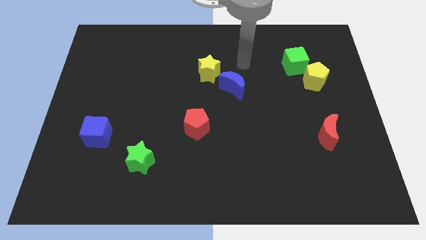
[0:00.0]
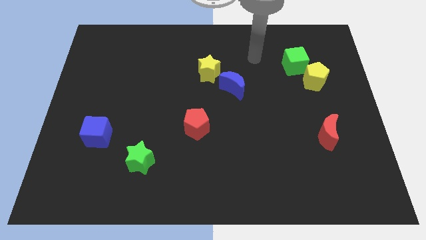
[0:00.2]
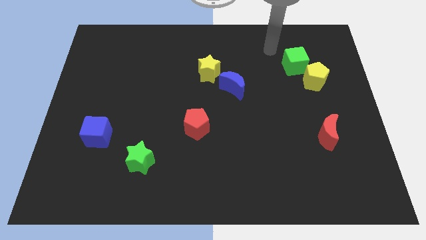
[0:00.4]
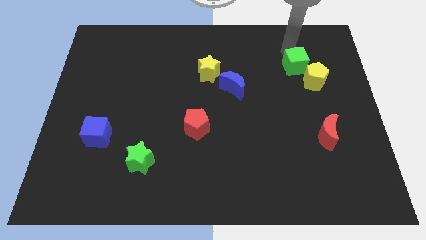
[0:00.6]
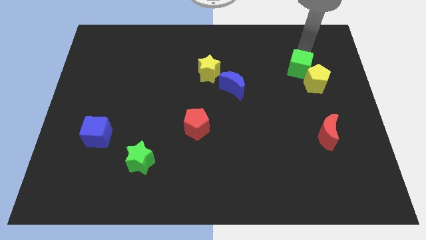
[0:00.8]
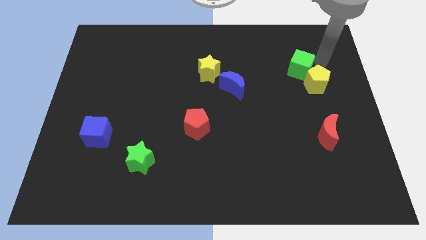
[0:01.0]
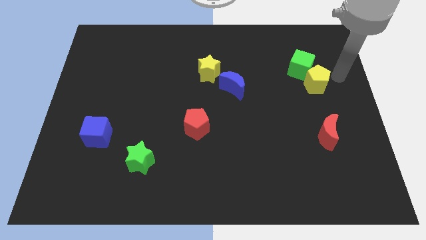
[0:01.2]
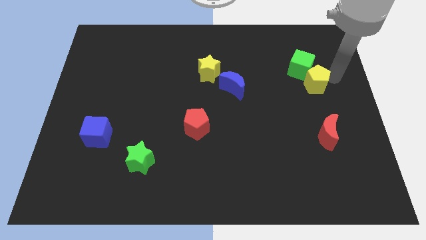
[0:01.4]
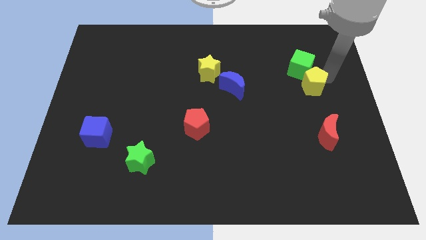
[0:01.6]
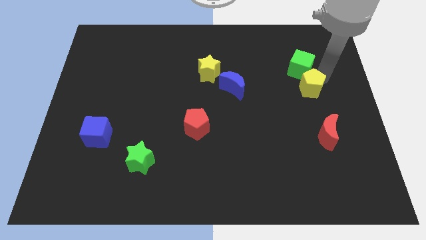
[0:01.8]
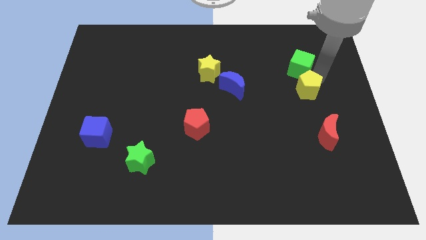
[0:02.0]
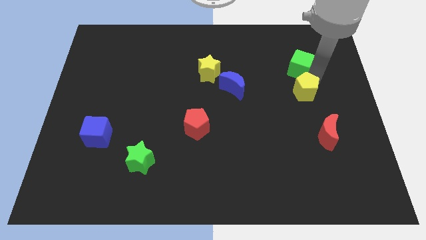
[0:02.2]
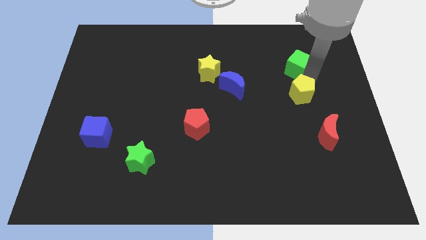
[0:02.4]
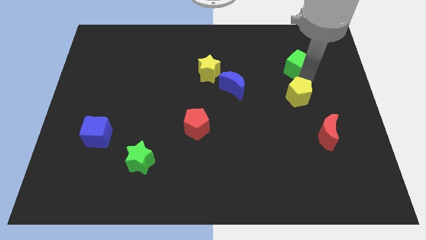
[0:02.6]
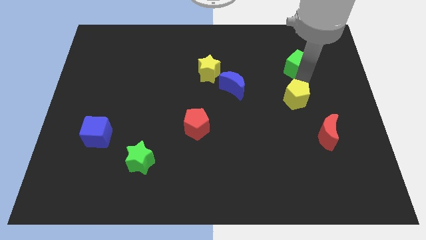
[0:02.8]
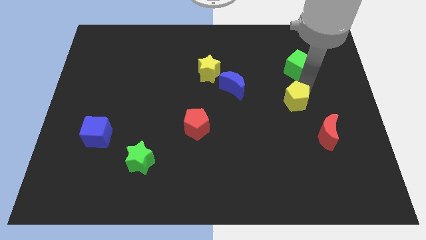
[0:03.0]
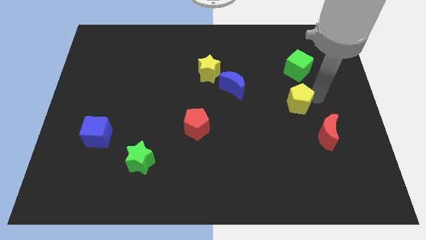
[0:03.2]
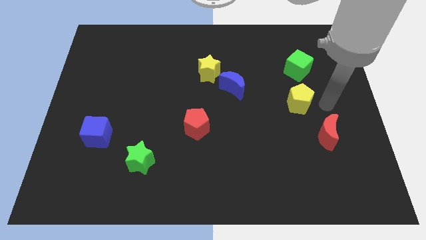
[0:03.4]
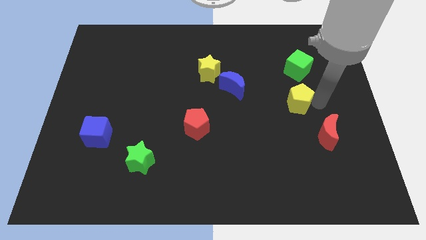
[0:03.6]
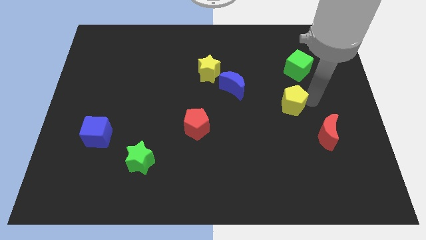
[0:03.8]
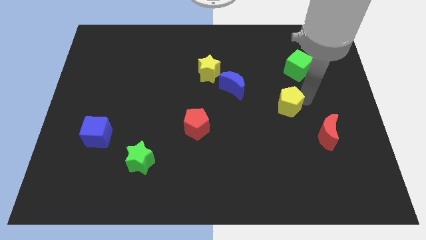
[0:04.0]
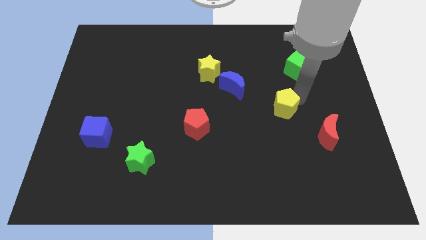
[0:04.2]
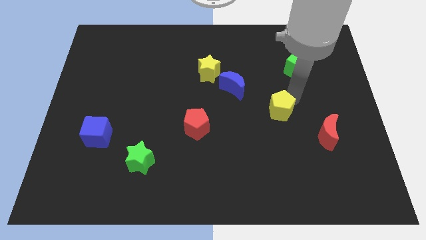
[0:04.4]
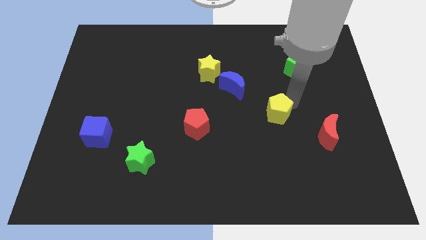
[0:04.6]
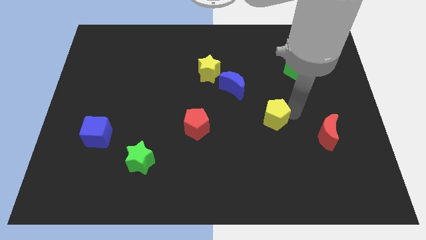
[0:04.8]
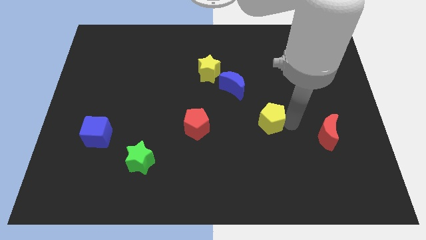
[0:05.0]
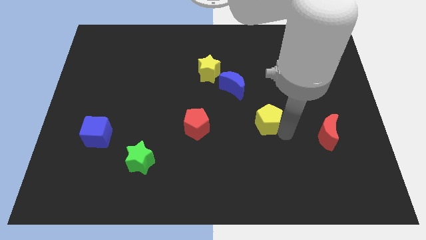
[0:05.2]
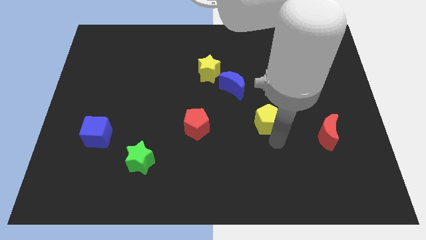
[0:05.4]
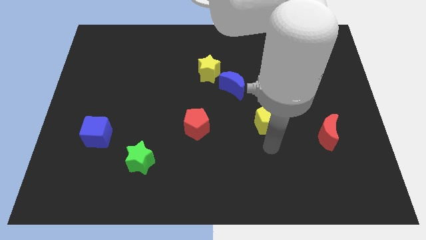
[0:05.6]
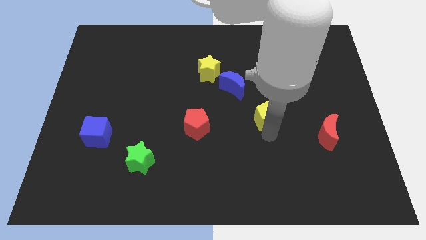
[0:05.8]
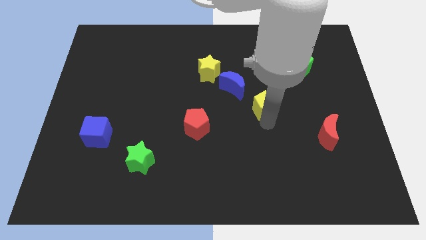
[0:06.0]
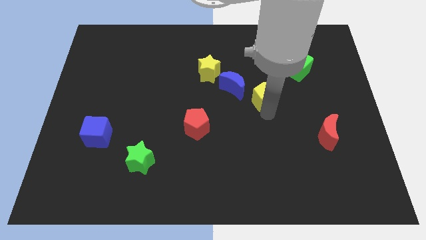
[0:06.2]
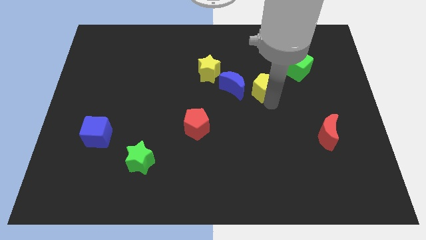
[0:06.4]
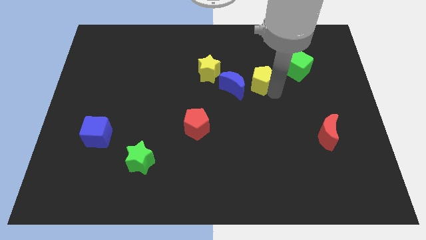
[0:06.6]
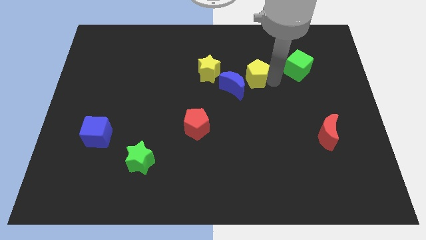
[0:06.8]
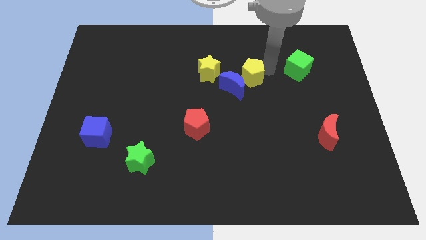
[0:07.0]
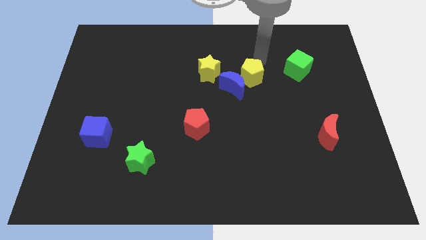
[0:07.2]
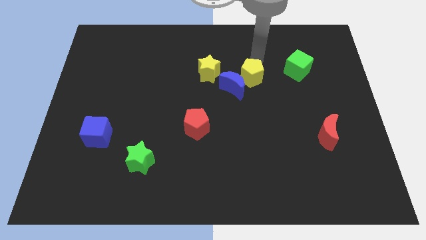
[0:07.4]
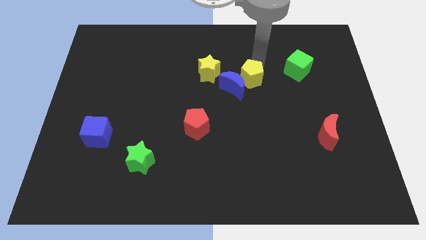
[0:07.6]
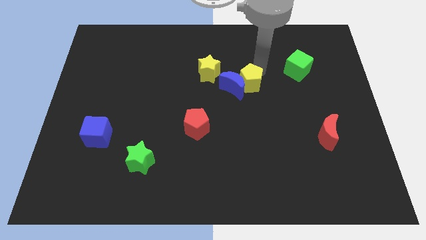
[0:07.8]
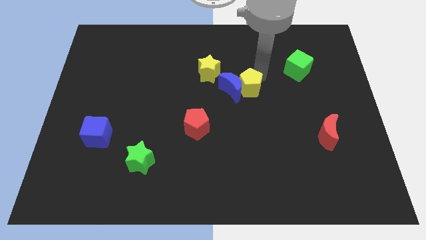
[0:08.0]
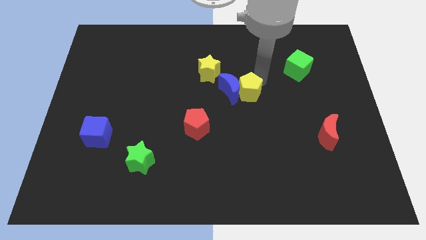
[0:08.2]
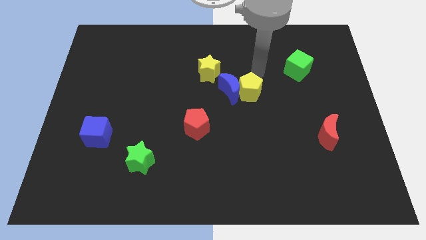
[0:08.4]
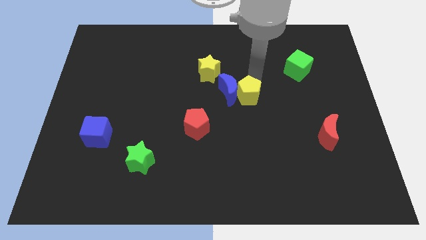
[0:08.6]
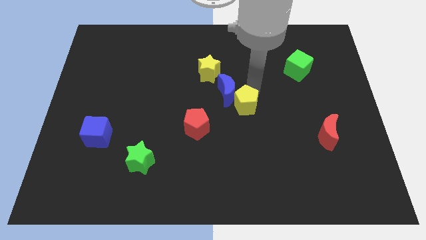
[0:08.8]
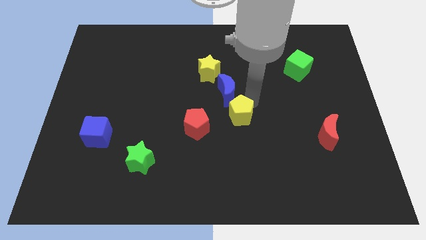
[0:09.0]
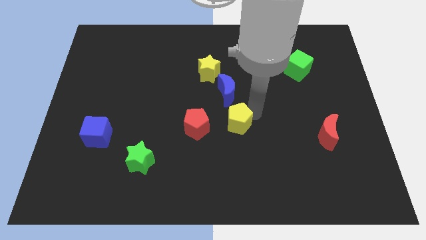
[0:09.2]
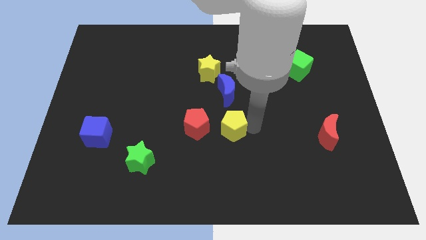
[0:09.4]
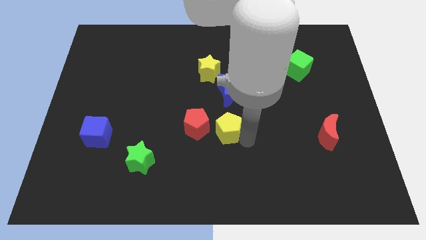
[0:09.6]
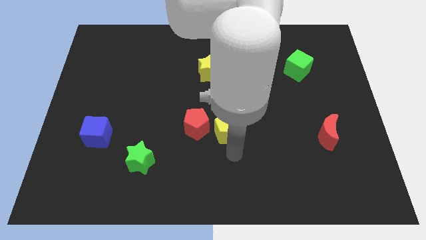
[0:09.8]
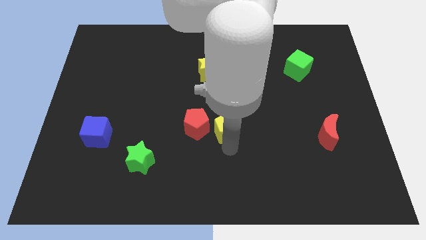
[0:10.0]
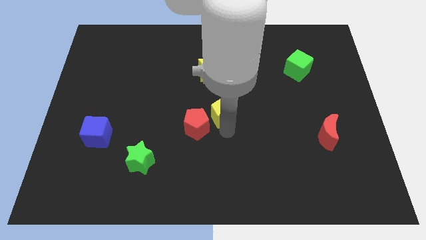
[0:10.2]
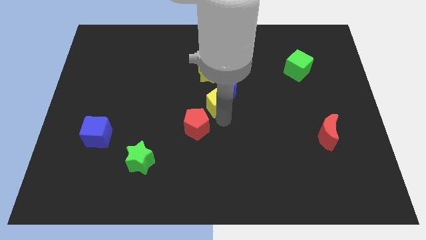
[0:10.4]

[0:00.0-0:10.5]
move the yellow pentagon left

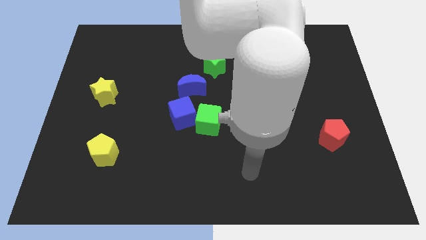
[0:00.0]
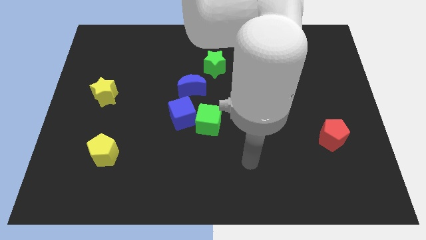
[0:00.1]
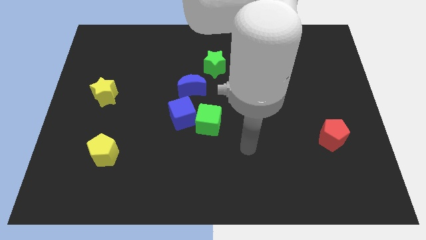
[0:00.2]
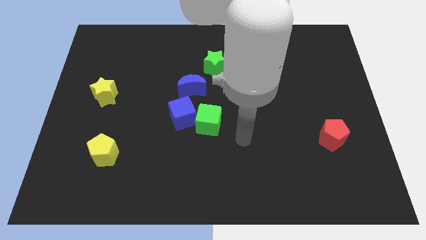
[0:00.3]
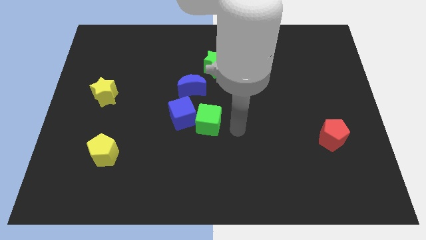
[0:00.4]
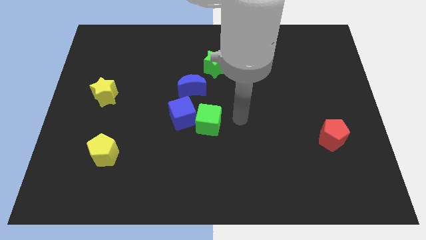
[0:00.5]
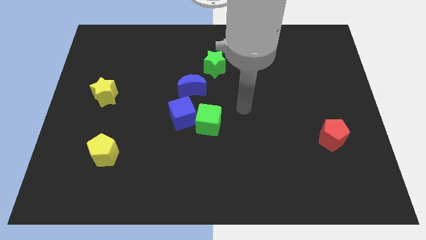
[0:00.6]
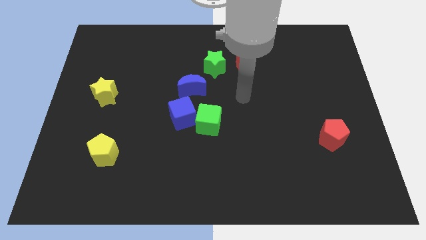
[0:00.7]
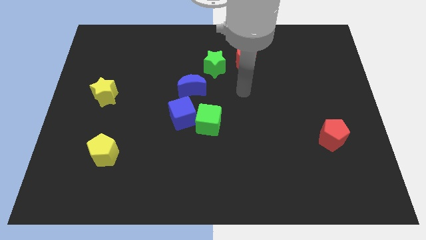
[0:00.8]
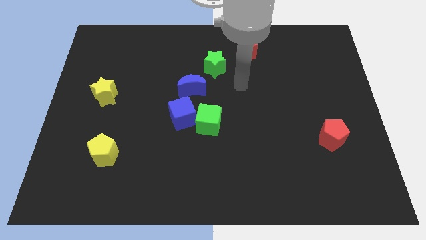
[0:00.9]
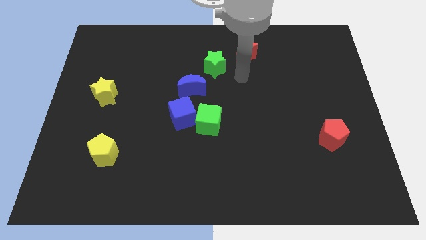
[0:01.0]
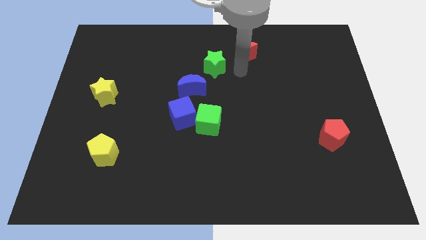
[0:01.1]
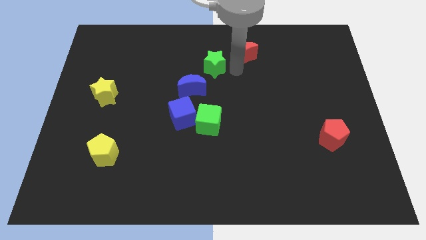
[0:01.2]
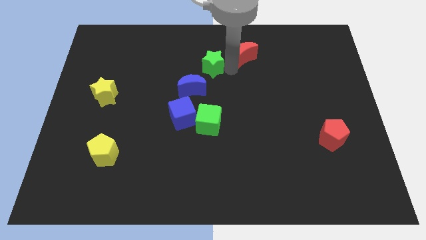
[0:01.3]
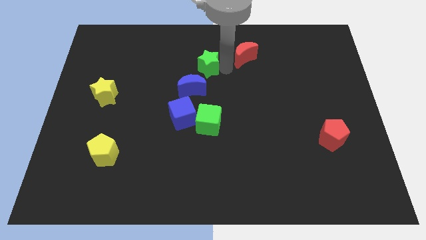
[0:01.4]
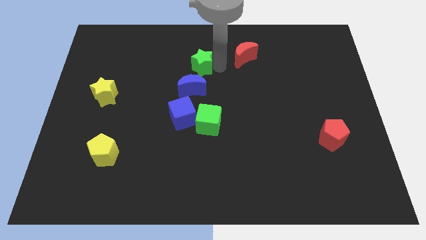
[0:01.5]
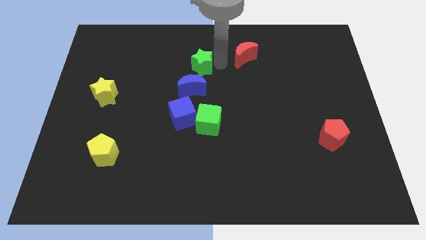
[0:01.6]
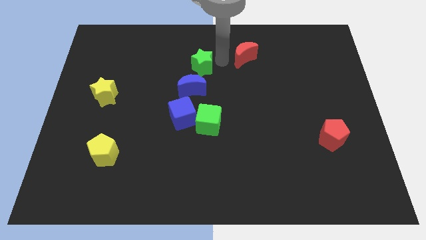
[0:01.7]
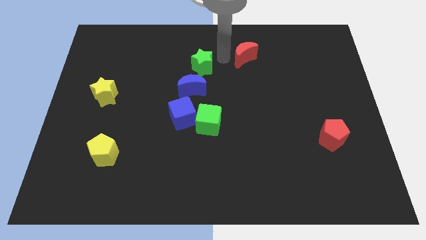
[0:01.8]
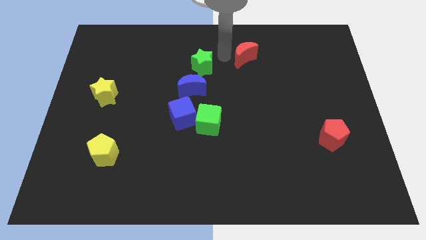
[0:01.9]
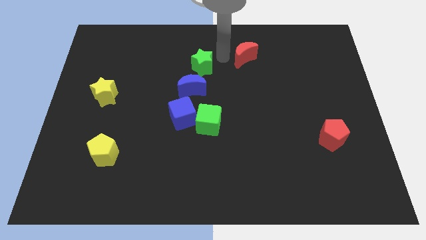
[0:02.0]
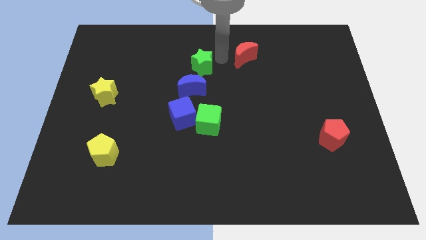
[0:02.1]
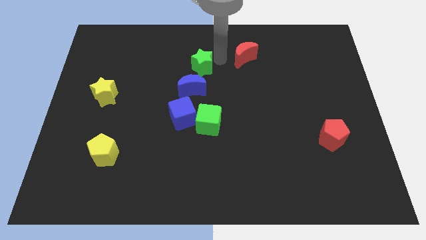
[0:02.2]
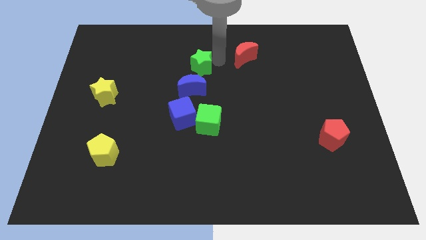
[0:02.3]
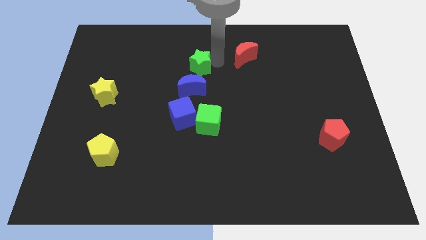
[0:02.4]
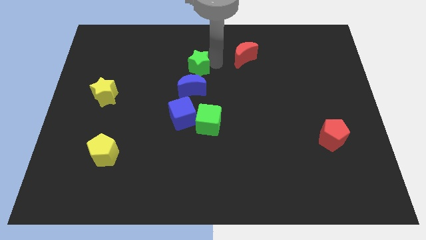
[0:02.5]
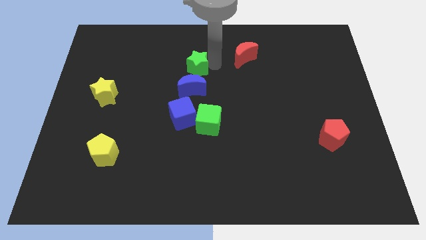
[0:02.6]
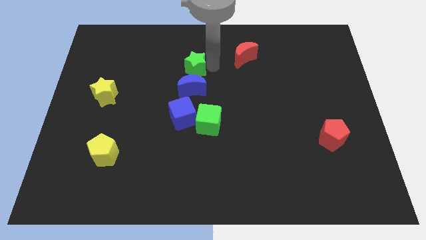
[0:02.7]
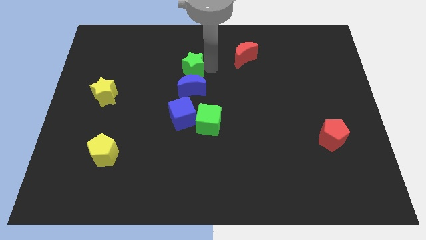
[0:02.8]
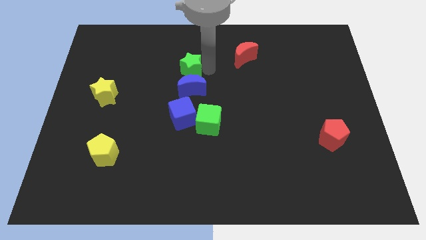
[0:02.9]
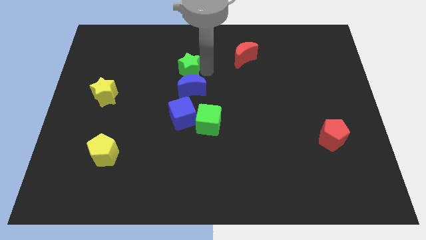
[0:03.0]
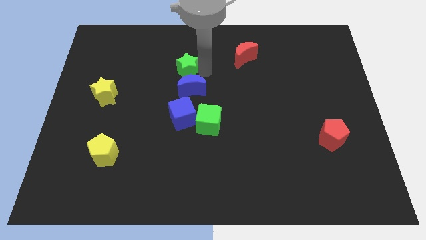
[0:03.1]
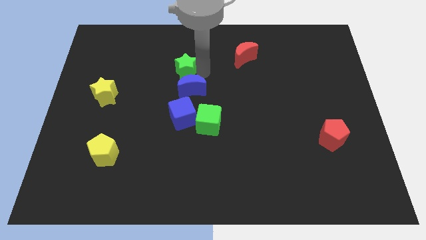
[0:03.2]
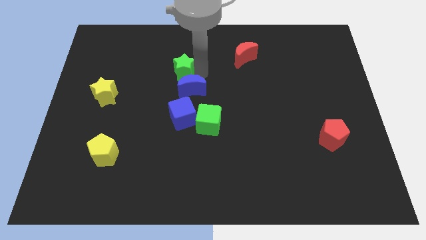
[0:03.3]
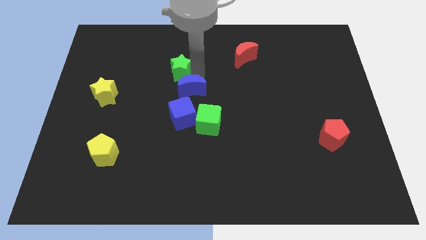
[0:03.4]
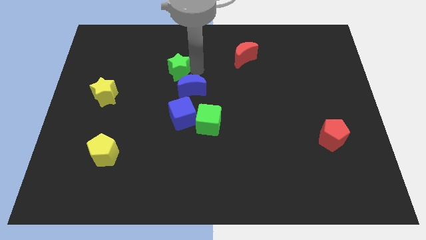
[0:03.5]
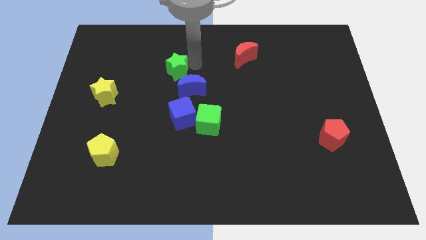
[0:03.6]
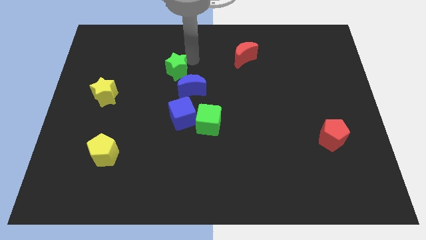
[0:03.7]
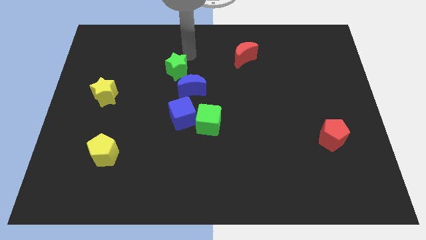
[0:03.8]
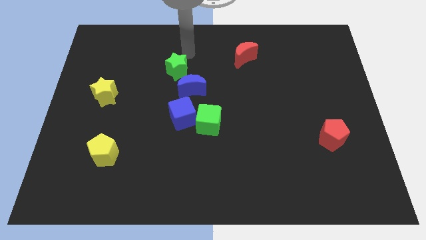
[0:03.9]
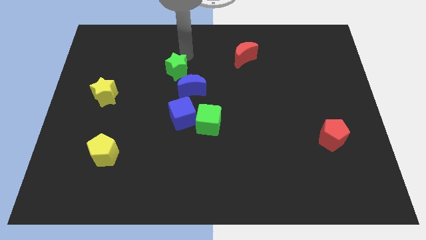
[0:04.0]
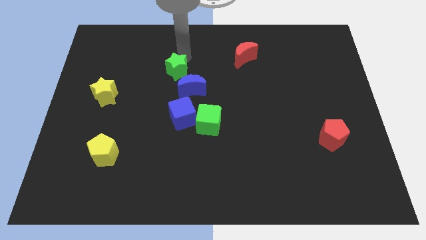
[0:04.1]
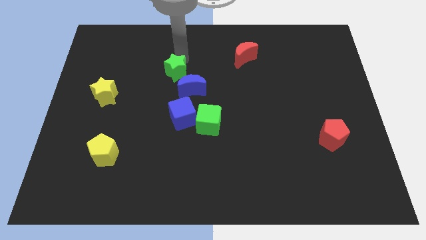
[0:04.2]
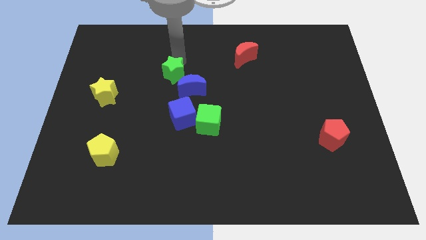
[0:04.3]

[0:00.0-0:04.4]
move the green star slightly downwards and to the left diagonally
